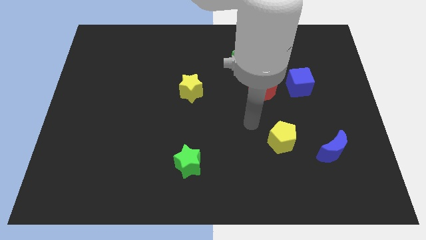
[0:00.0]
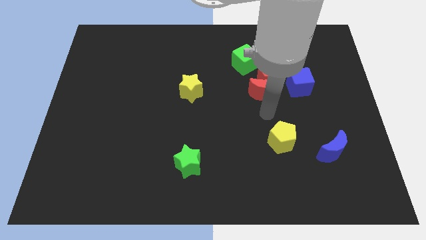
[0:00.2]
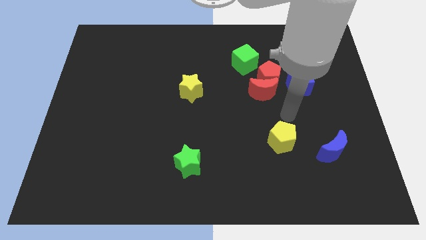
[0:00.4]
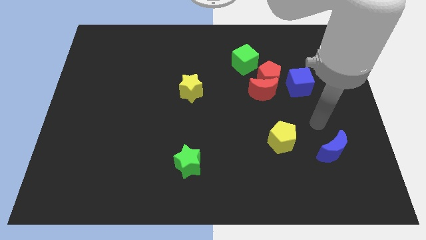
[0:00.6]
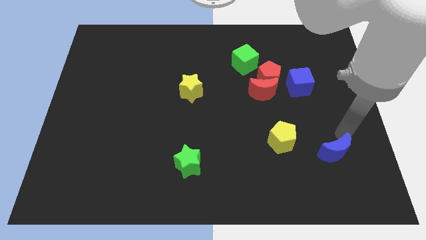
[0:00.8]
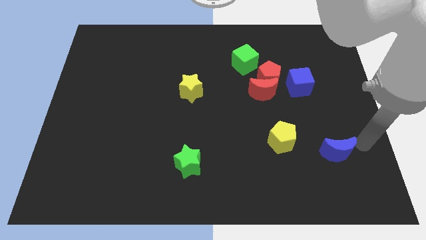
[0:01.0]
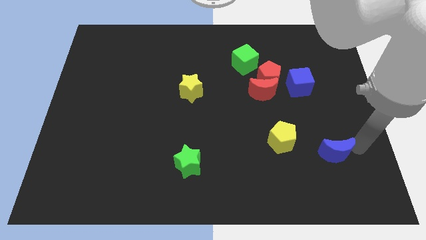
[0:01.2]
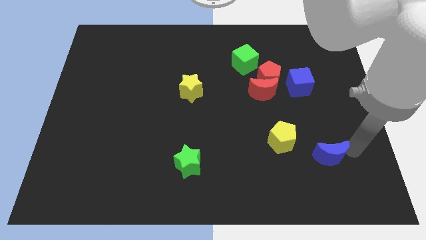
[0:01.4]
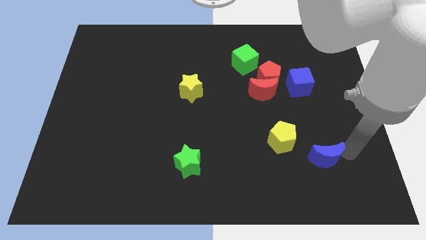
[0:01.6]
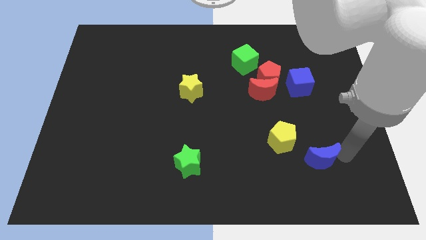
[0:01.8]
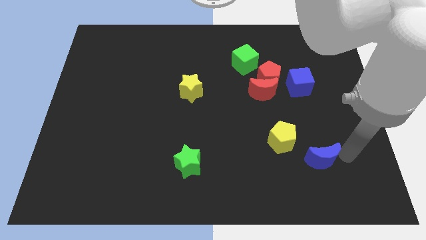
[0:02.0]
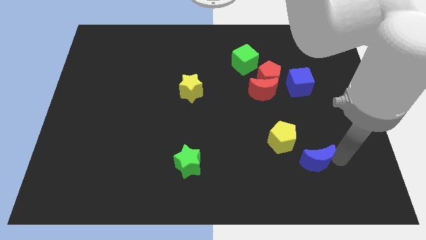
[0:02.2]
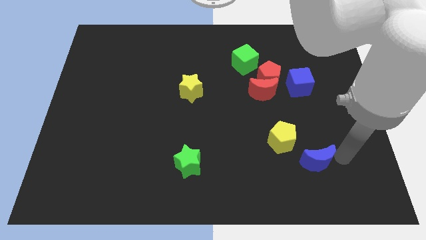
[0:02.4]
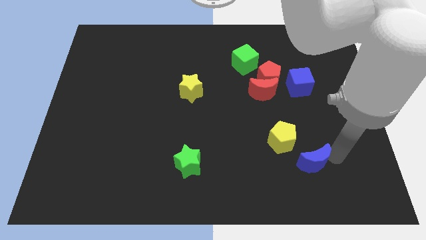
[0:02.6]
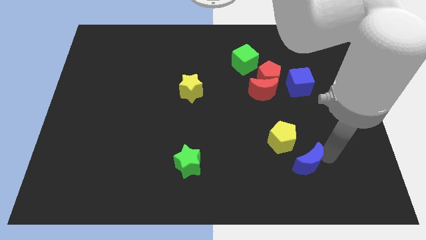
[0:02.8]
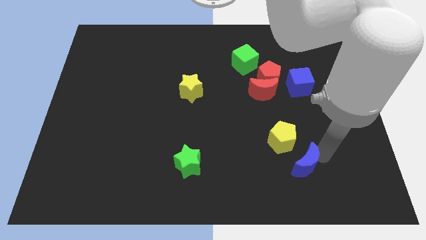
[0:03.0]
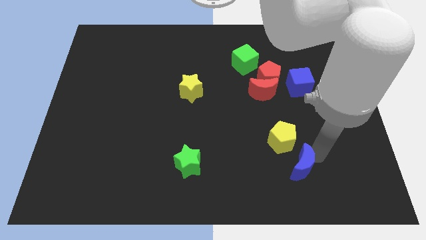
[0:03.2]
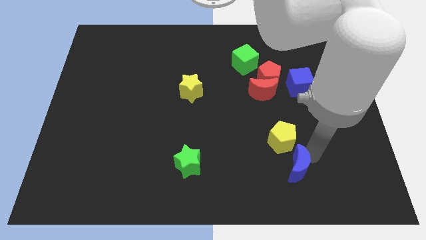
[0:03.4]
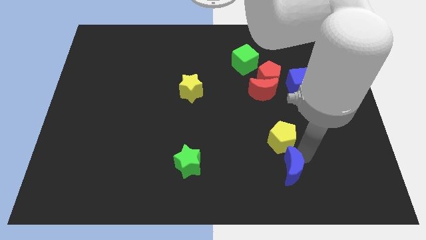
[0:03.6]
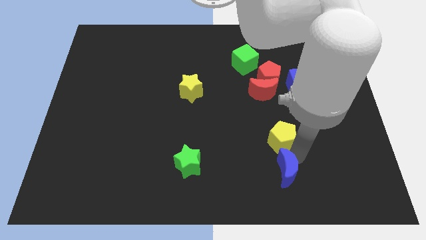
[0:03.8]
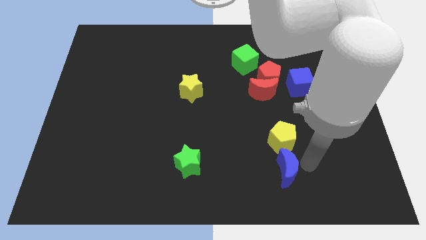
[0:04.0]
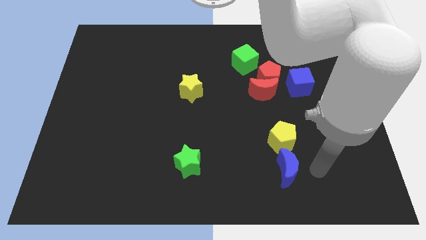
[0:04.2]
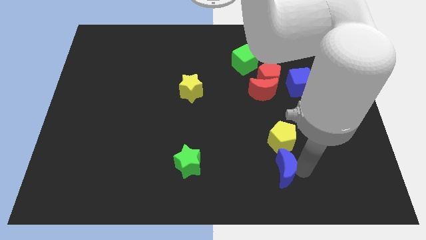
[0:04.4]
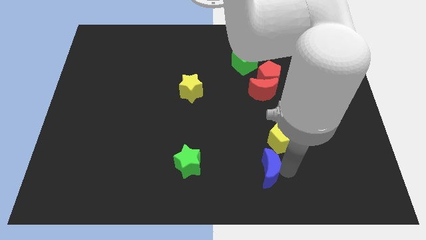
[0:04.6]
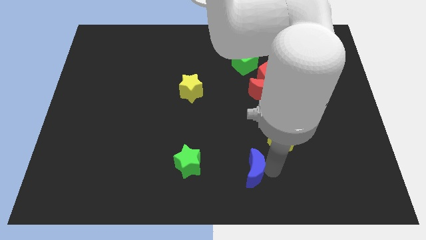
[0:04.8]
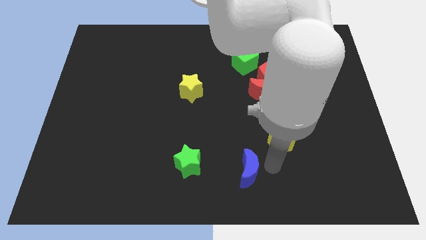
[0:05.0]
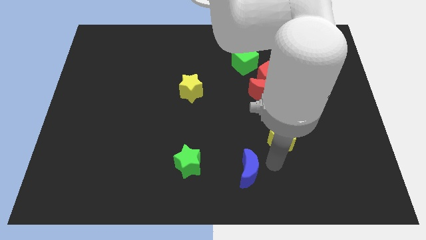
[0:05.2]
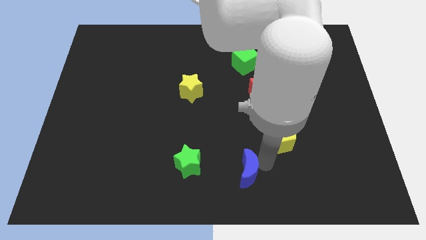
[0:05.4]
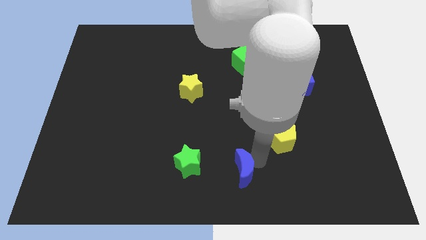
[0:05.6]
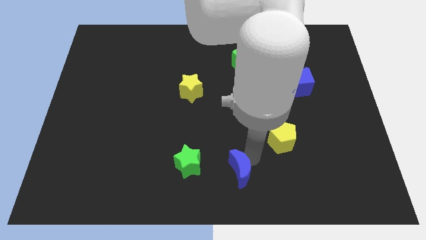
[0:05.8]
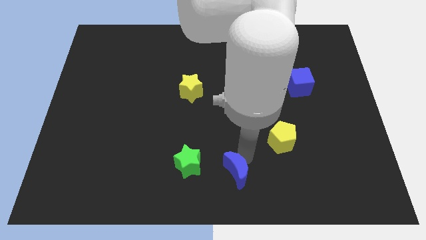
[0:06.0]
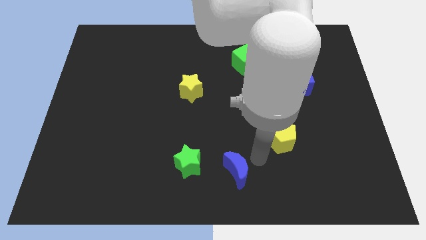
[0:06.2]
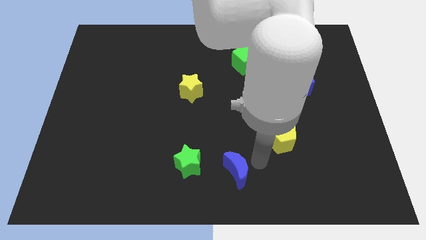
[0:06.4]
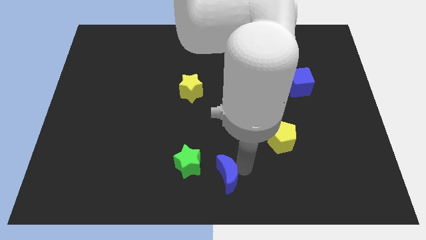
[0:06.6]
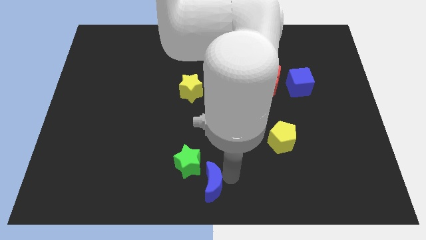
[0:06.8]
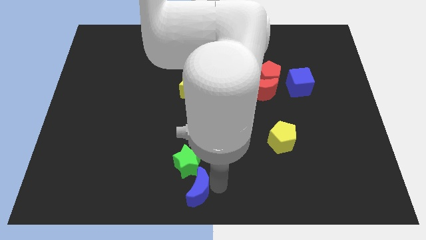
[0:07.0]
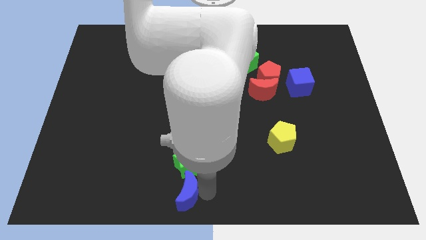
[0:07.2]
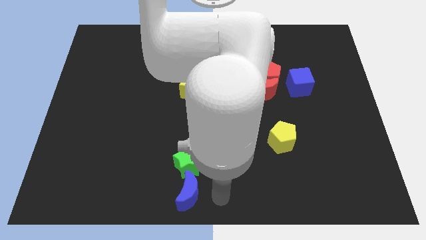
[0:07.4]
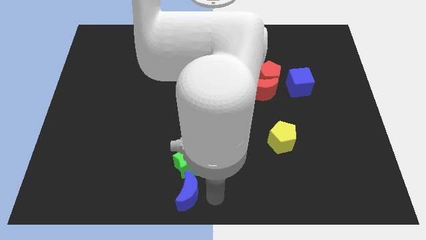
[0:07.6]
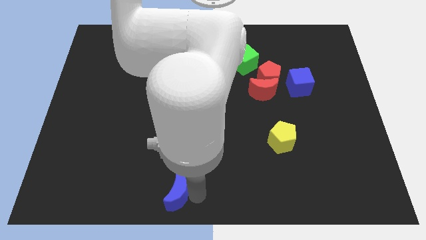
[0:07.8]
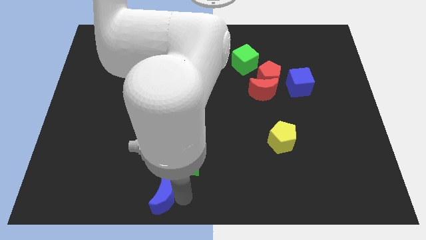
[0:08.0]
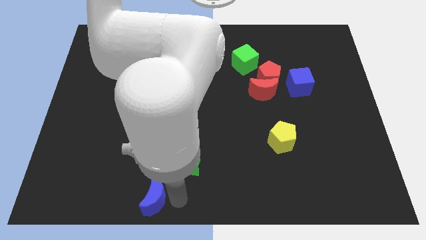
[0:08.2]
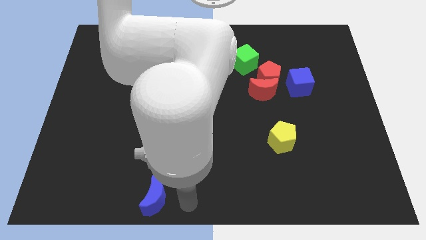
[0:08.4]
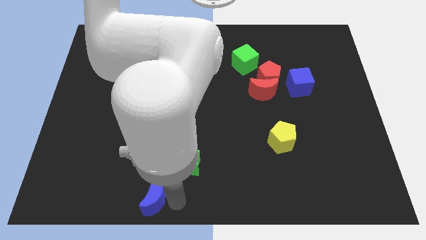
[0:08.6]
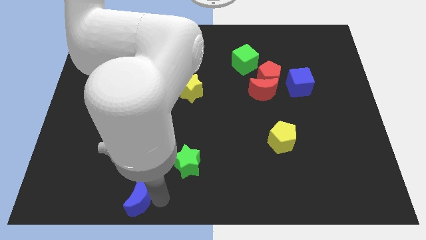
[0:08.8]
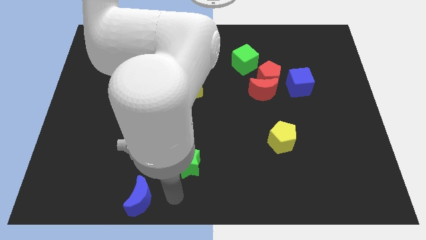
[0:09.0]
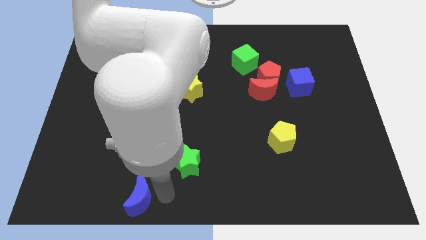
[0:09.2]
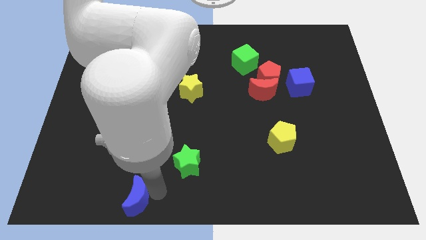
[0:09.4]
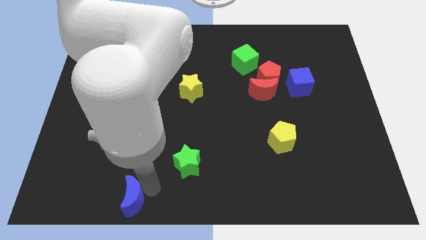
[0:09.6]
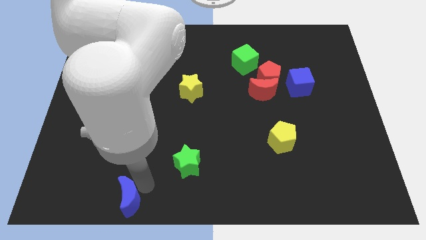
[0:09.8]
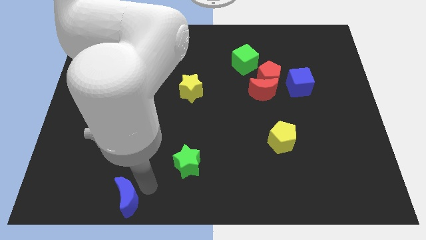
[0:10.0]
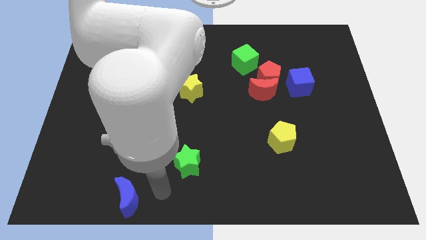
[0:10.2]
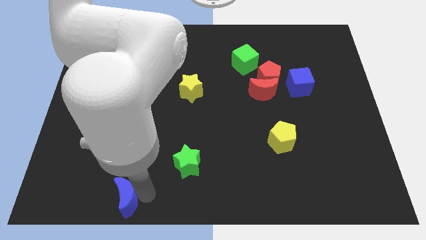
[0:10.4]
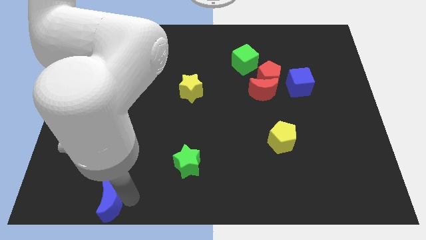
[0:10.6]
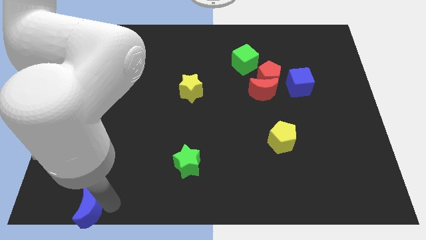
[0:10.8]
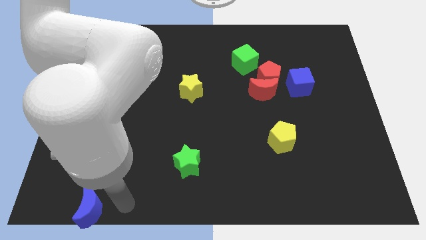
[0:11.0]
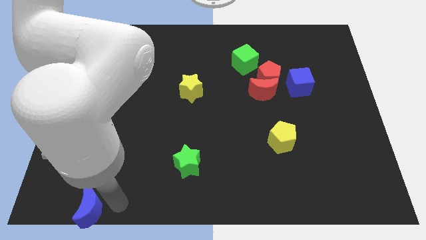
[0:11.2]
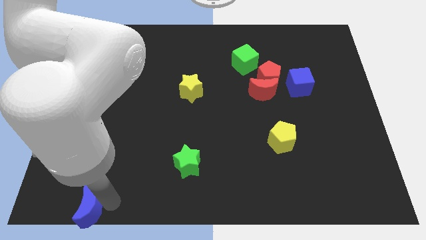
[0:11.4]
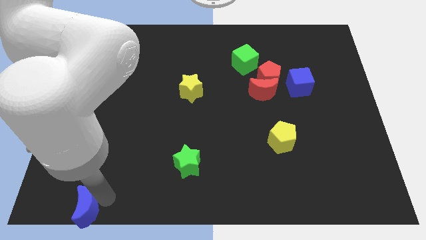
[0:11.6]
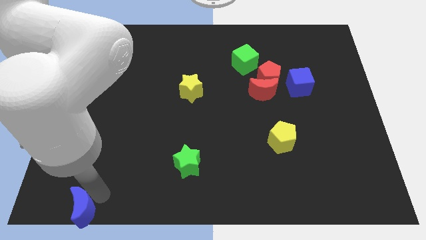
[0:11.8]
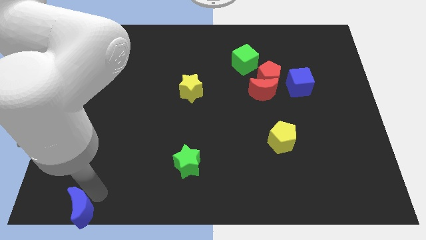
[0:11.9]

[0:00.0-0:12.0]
put the blue moon to the bottom left of the board

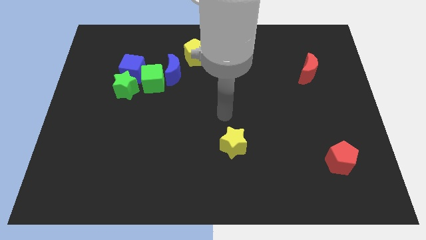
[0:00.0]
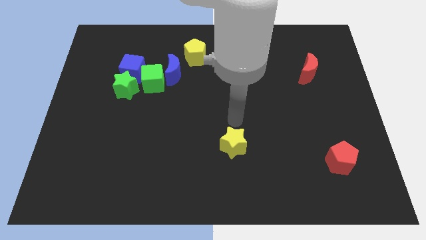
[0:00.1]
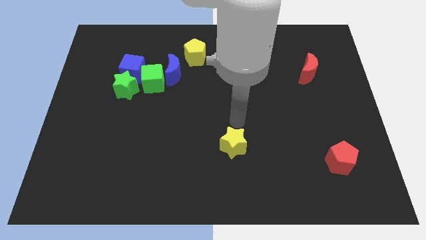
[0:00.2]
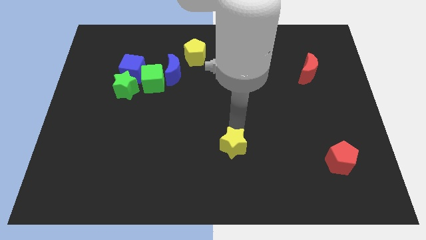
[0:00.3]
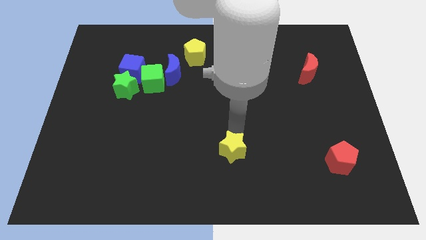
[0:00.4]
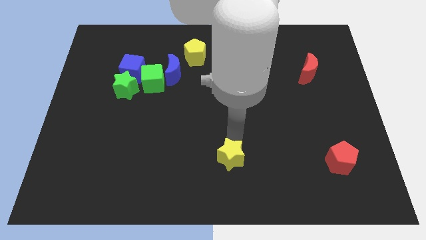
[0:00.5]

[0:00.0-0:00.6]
move the yellow star to the bottom
